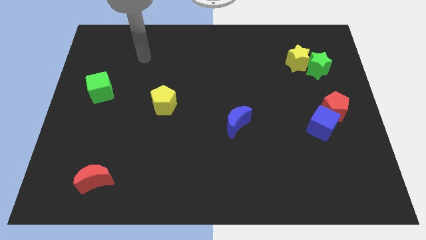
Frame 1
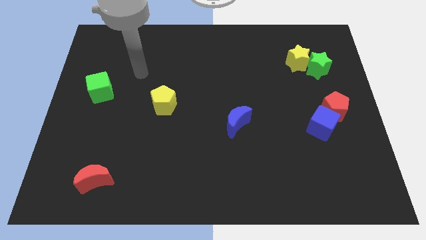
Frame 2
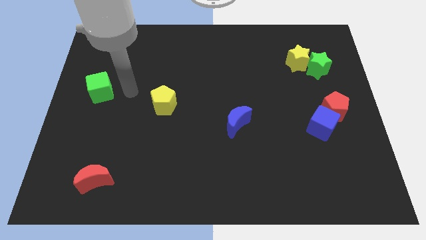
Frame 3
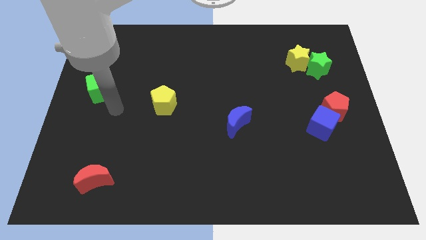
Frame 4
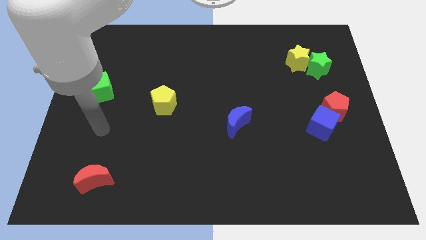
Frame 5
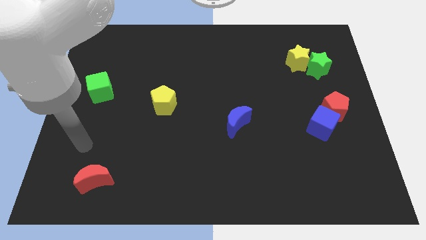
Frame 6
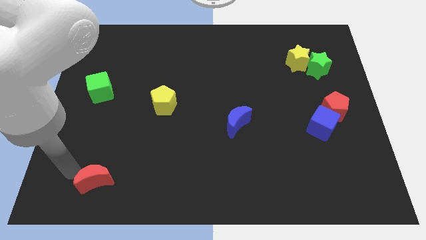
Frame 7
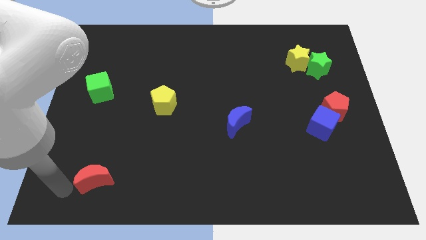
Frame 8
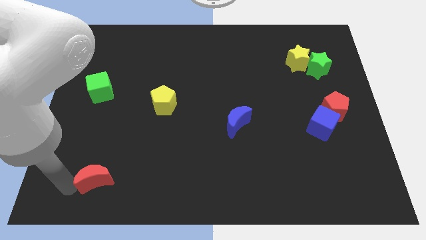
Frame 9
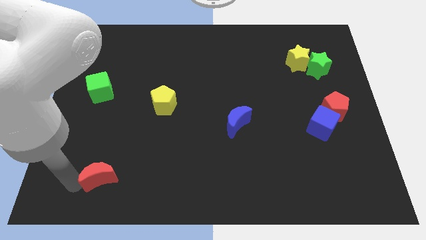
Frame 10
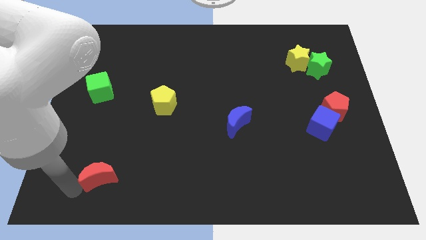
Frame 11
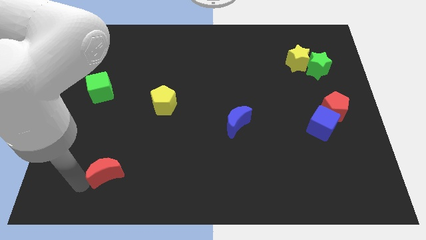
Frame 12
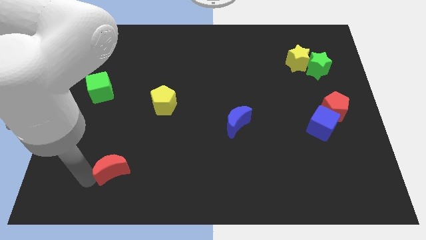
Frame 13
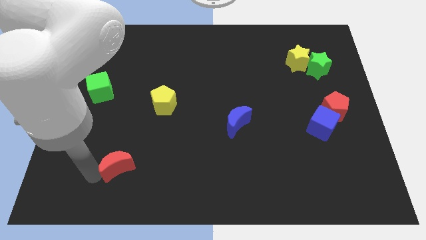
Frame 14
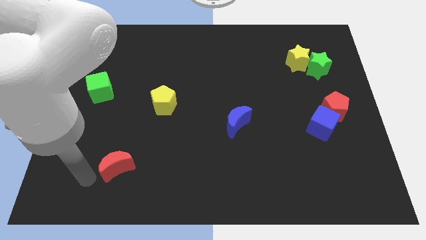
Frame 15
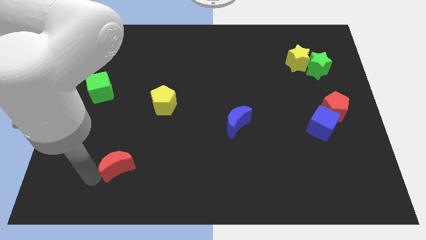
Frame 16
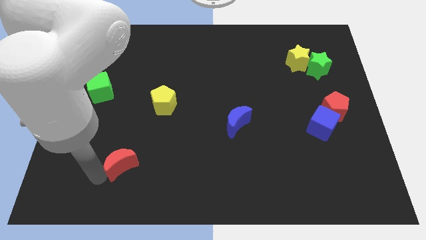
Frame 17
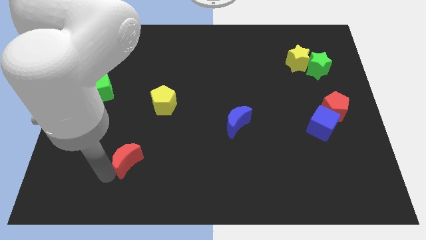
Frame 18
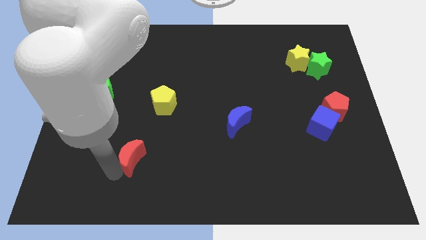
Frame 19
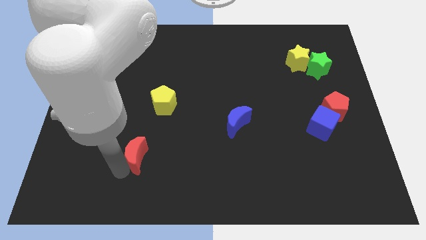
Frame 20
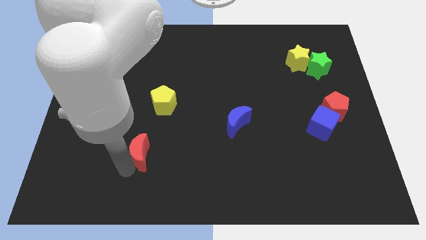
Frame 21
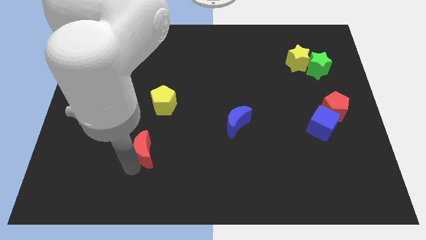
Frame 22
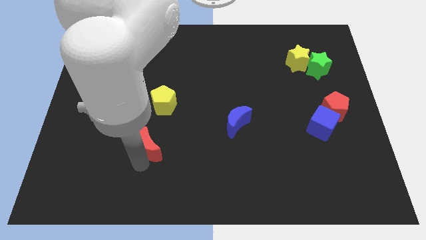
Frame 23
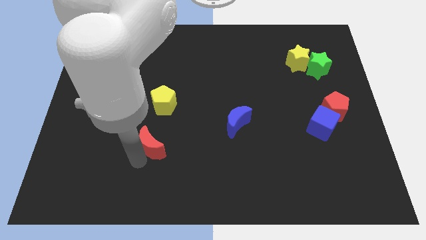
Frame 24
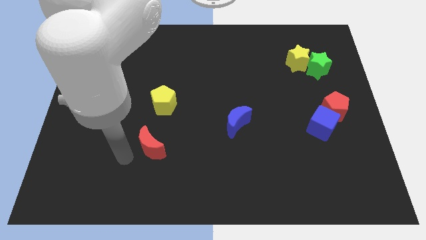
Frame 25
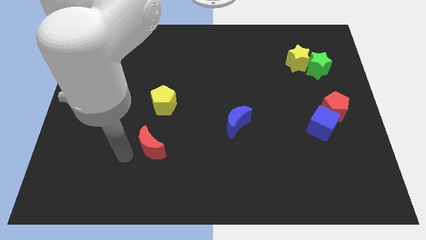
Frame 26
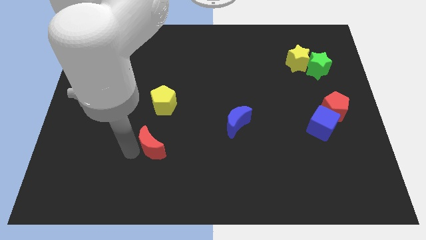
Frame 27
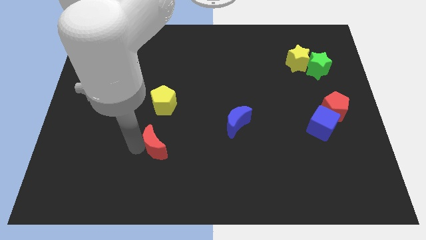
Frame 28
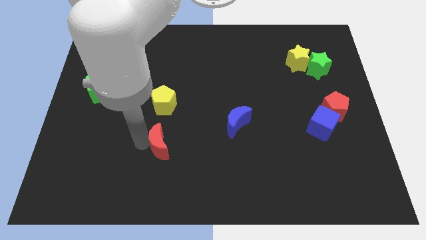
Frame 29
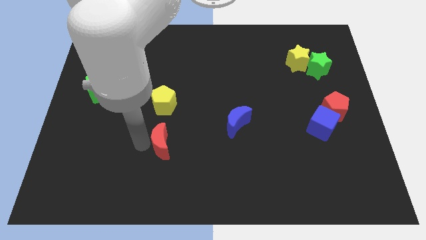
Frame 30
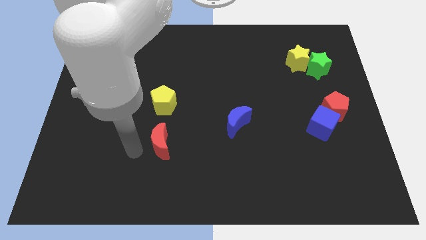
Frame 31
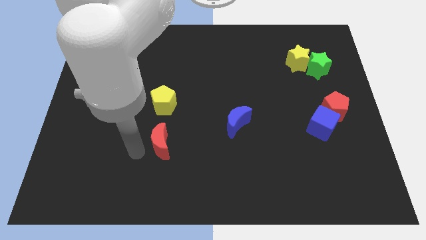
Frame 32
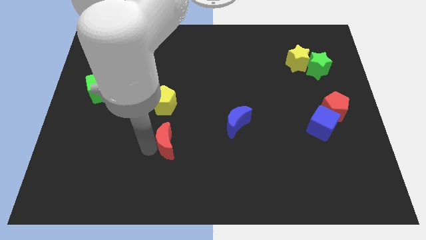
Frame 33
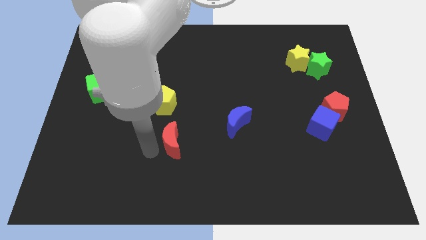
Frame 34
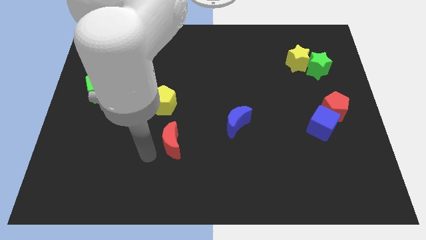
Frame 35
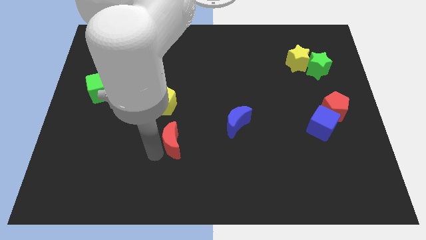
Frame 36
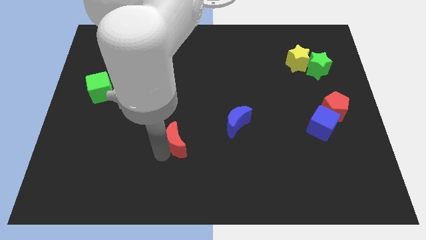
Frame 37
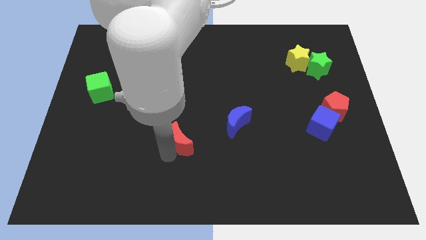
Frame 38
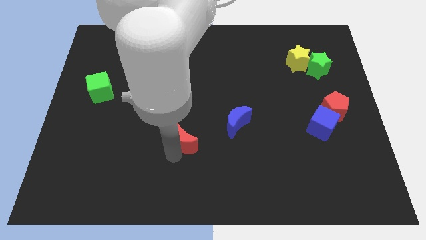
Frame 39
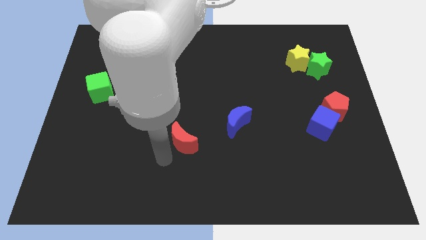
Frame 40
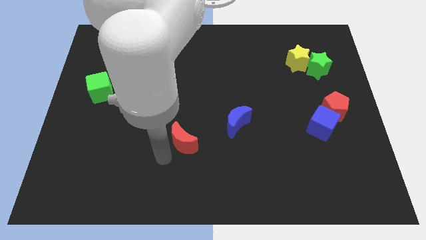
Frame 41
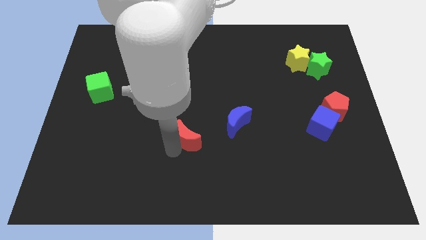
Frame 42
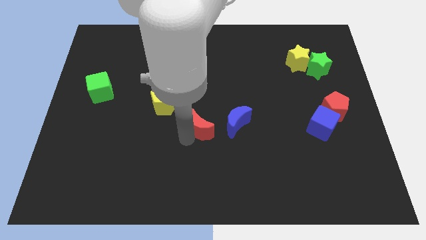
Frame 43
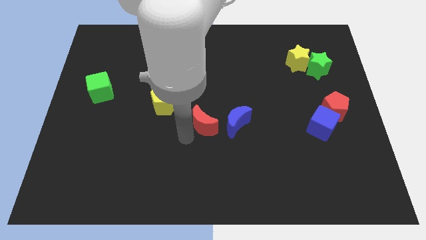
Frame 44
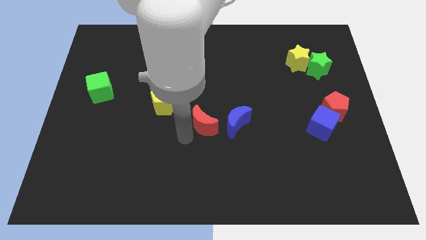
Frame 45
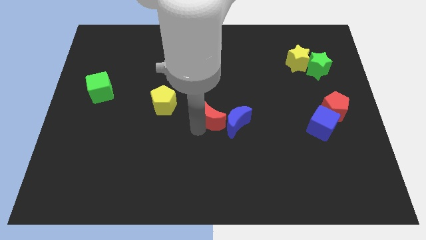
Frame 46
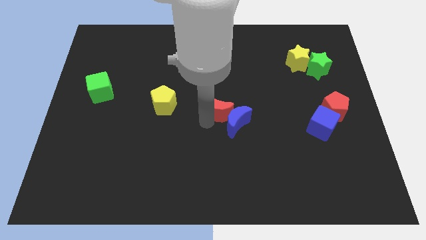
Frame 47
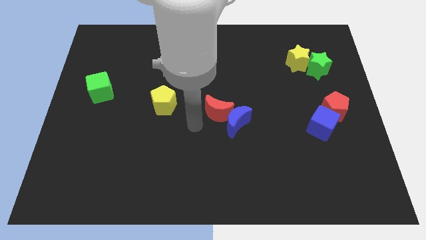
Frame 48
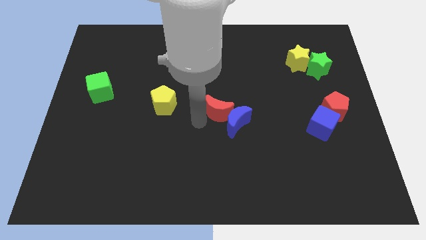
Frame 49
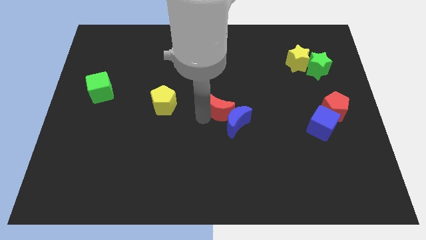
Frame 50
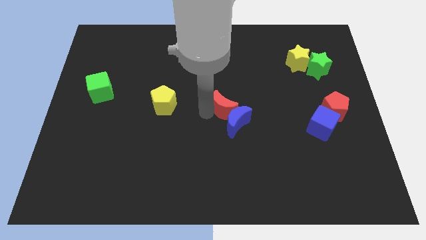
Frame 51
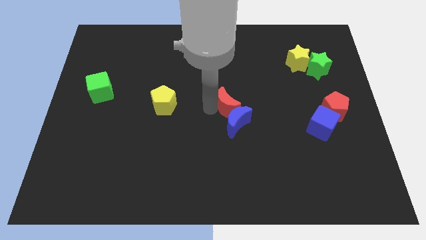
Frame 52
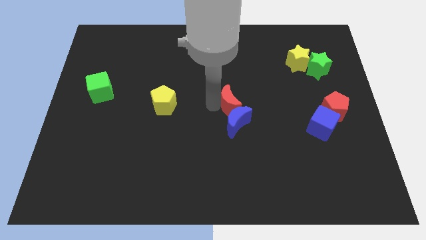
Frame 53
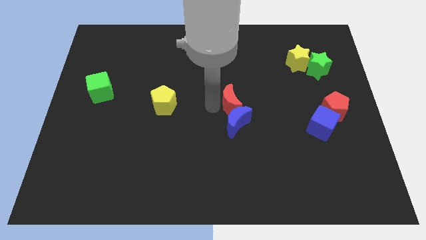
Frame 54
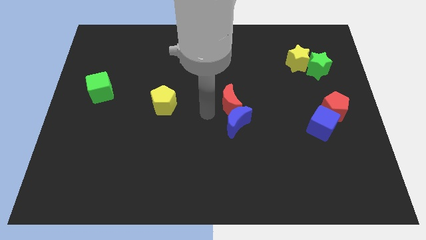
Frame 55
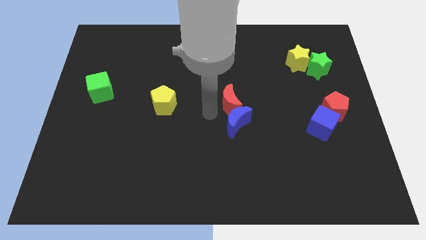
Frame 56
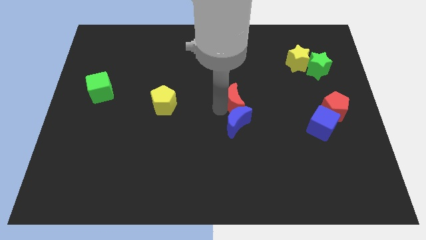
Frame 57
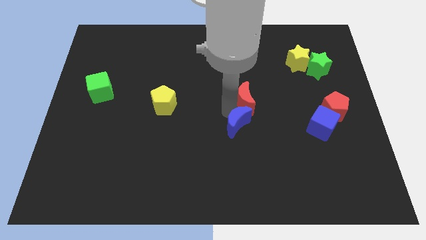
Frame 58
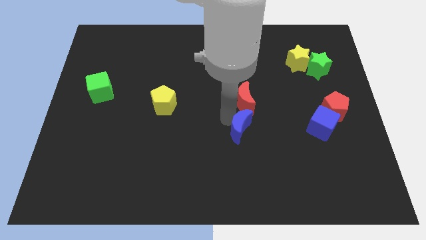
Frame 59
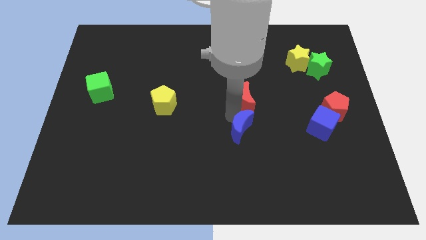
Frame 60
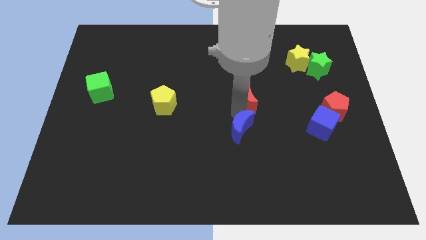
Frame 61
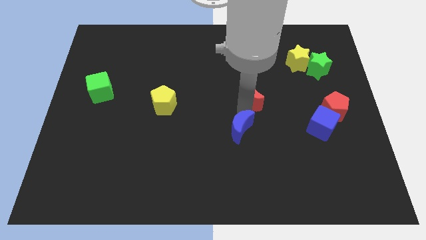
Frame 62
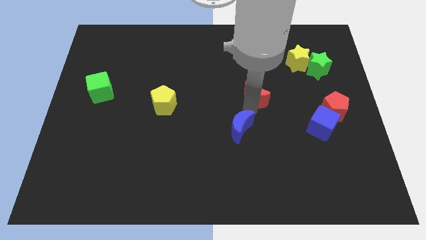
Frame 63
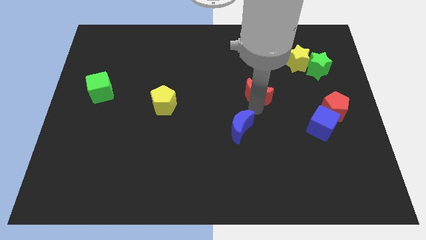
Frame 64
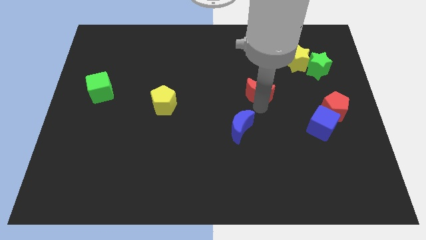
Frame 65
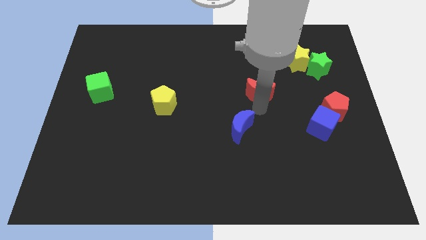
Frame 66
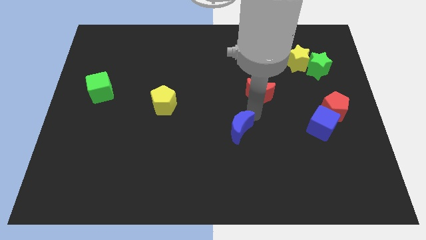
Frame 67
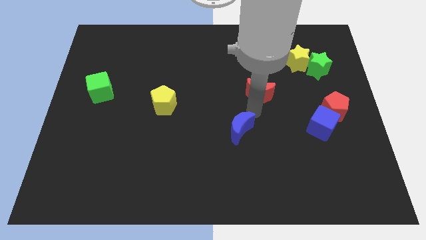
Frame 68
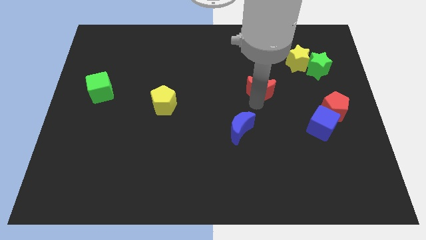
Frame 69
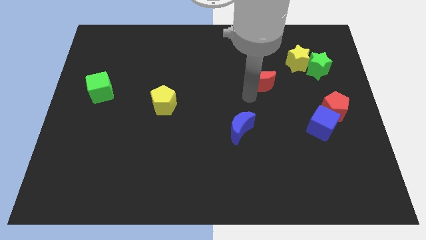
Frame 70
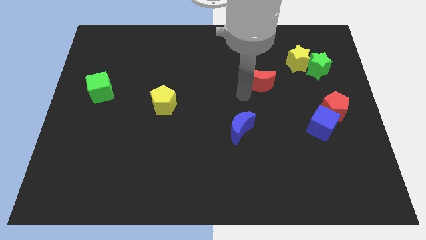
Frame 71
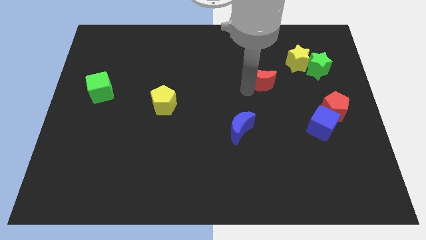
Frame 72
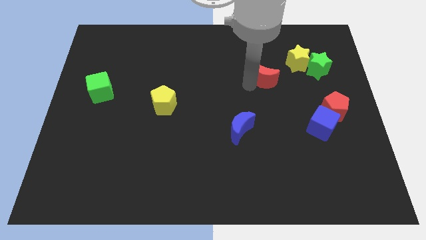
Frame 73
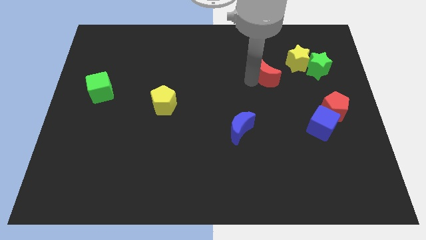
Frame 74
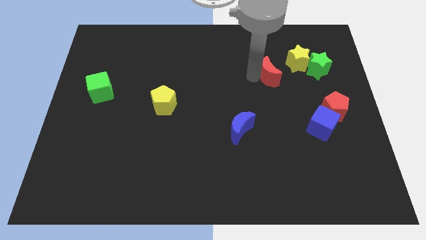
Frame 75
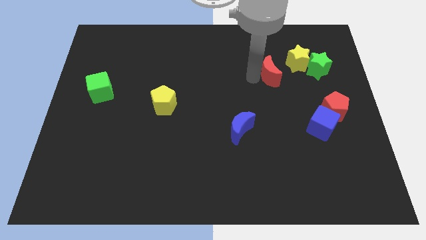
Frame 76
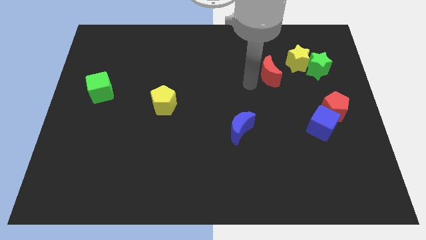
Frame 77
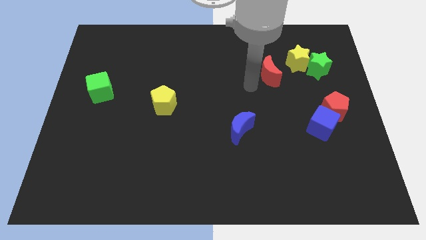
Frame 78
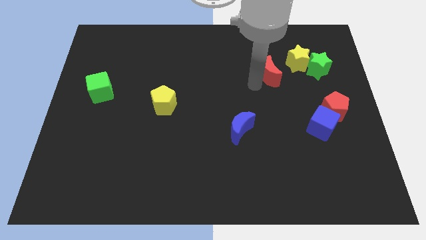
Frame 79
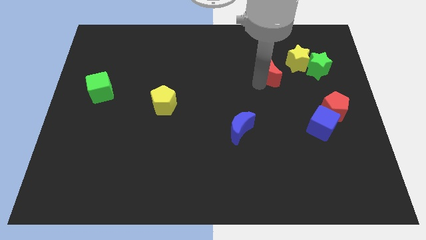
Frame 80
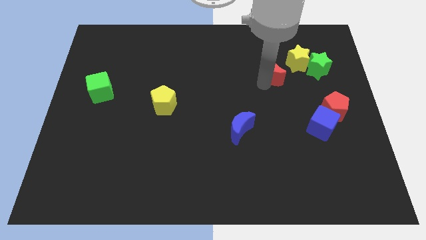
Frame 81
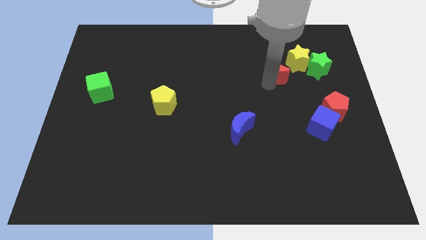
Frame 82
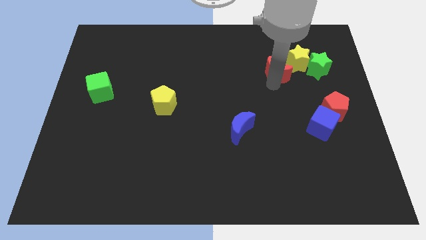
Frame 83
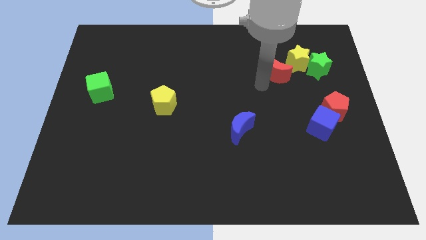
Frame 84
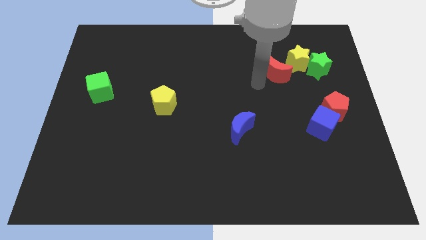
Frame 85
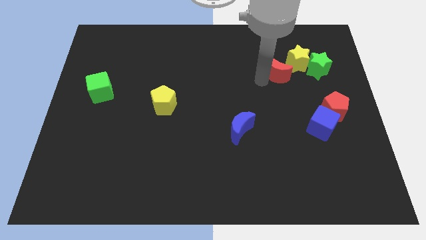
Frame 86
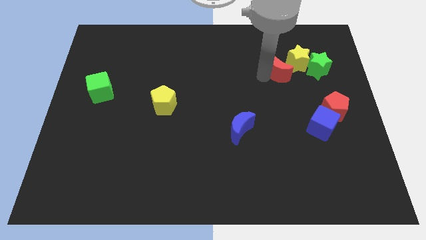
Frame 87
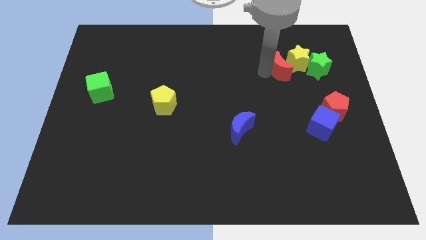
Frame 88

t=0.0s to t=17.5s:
slide the red moon close to the yellow star
